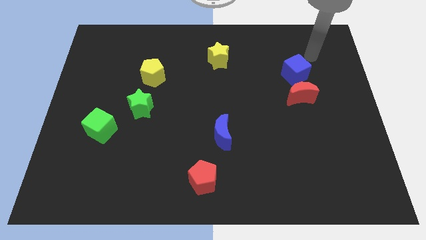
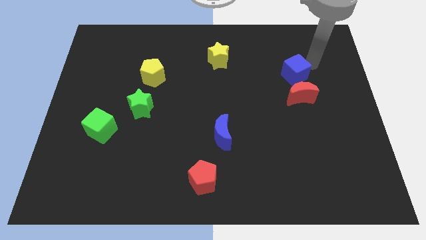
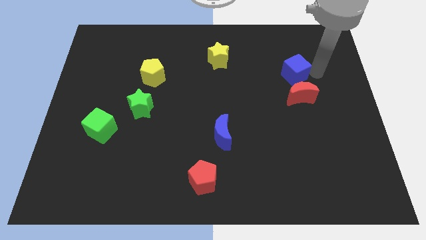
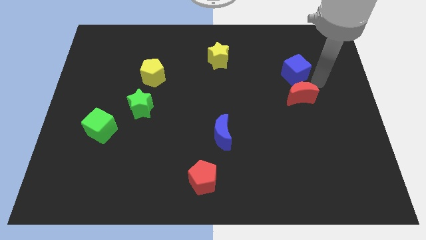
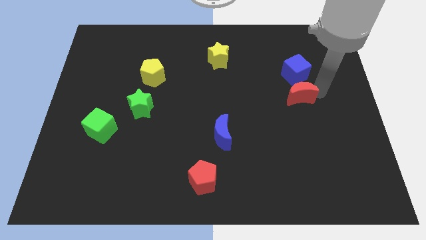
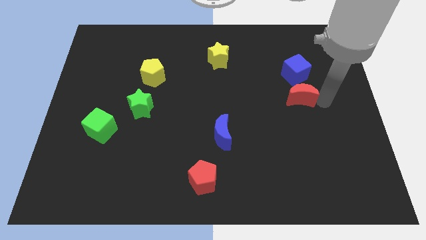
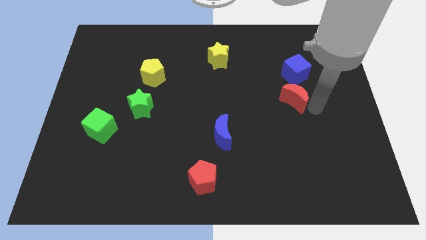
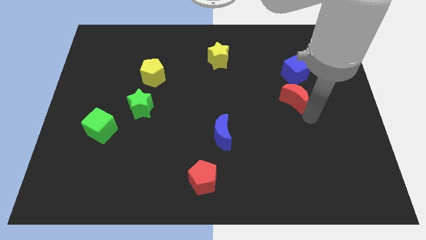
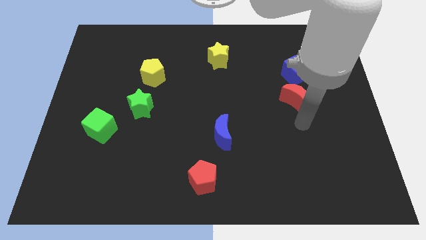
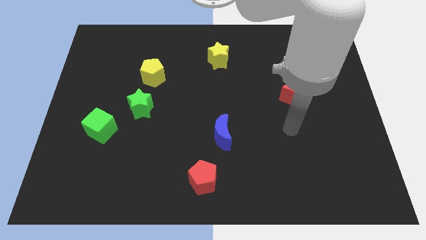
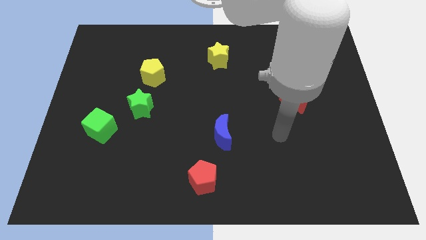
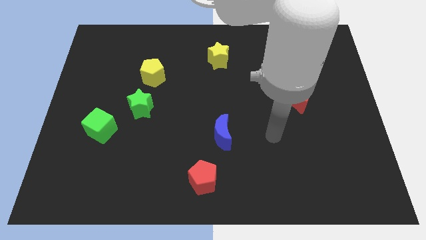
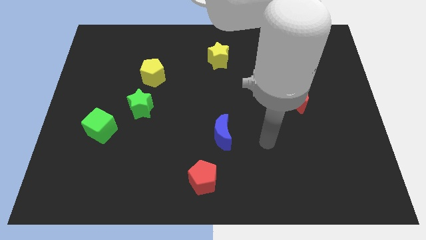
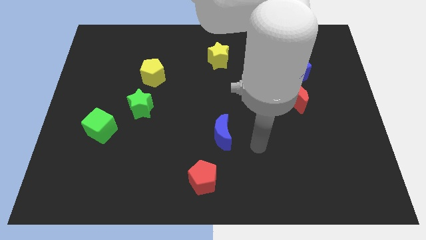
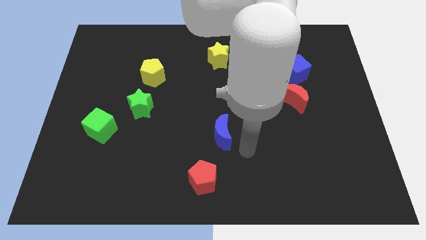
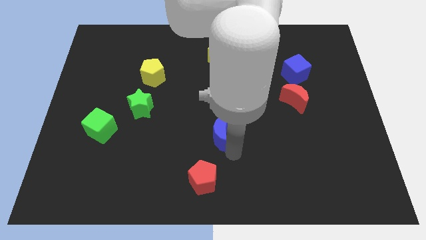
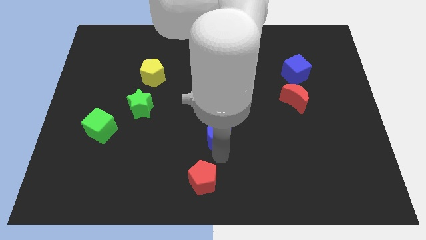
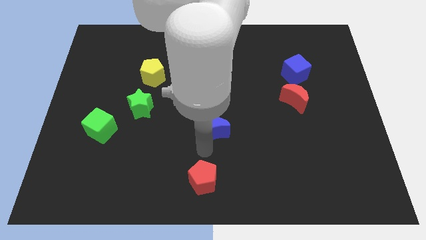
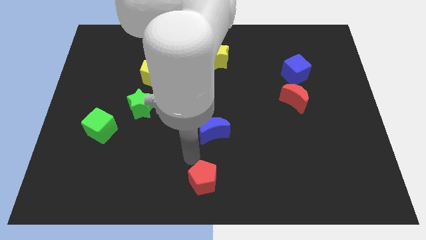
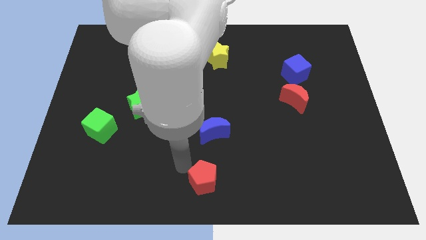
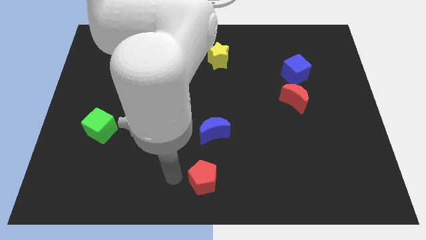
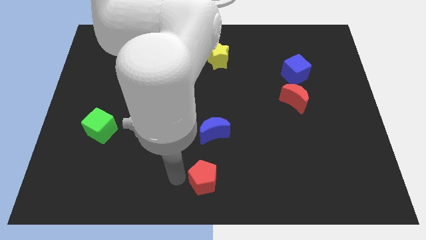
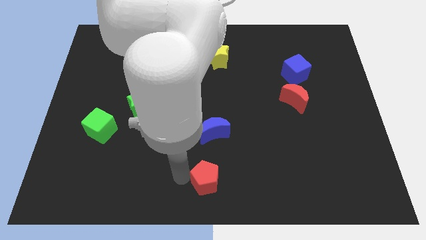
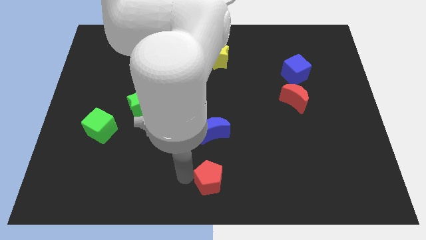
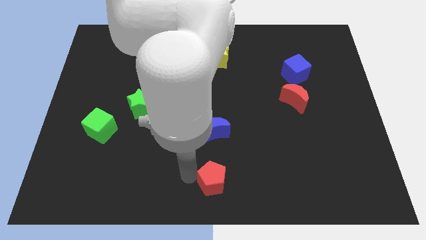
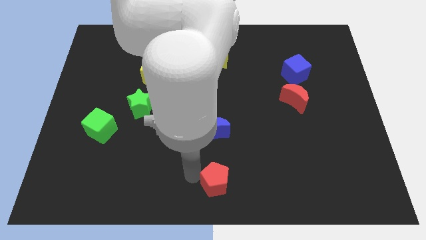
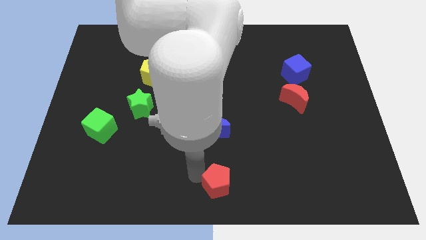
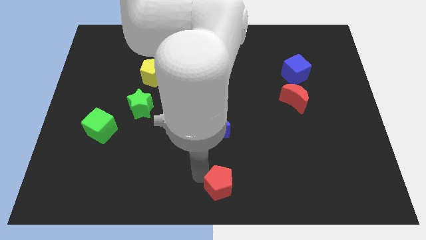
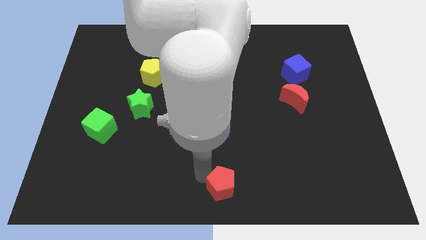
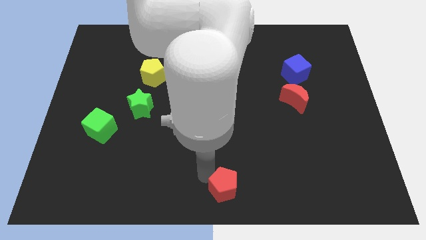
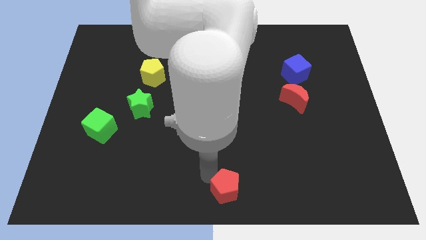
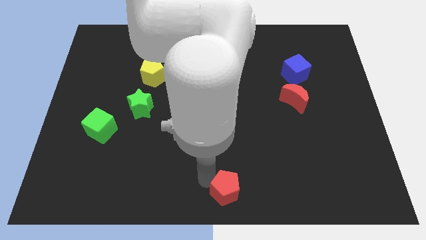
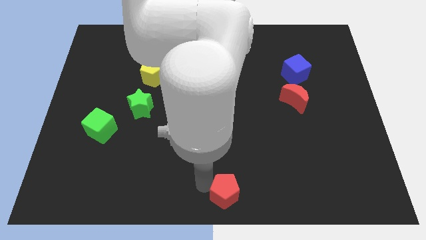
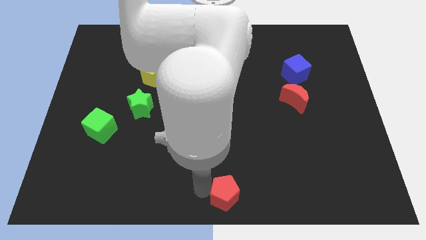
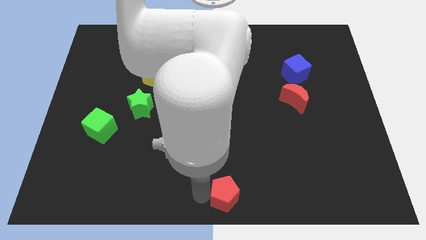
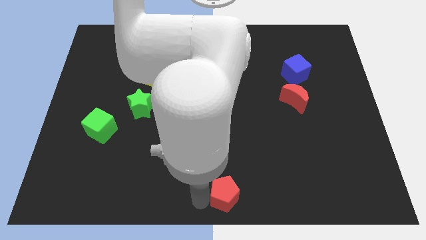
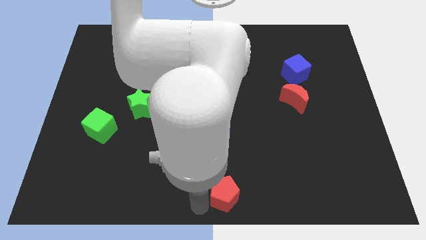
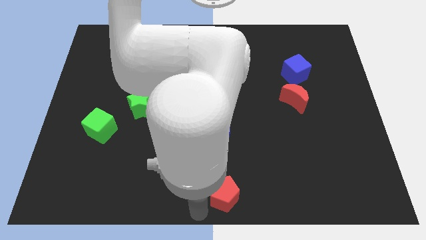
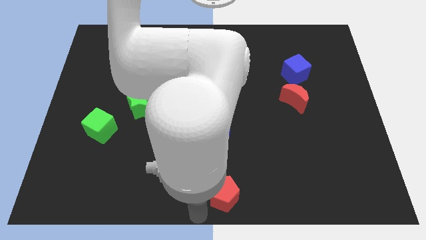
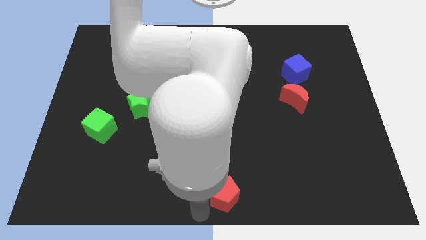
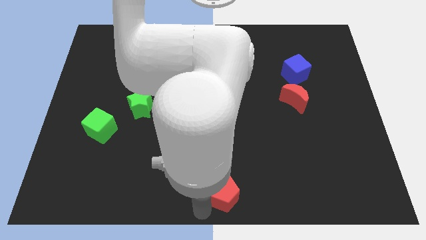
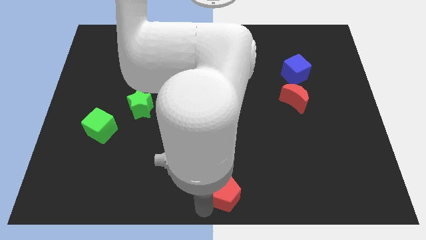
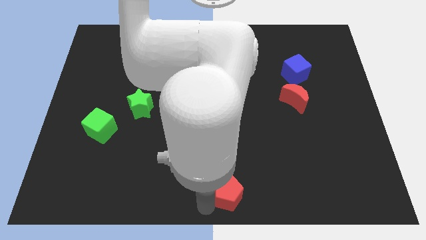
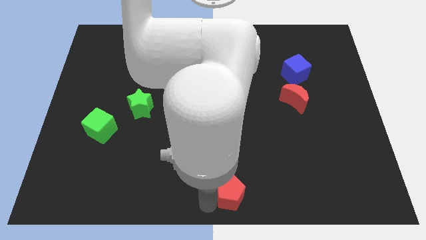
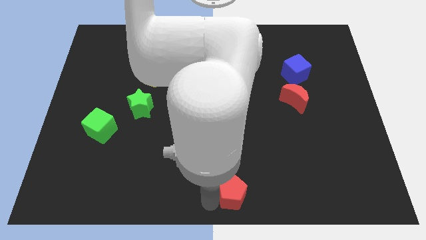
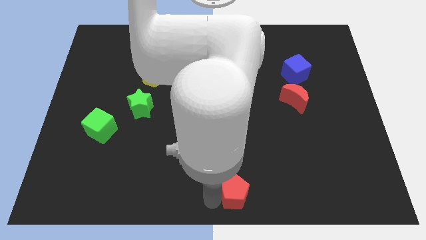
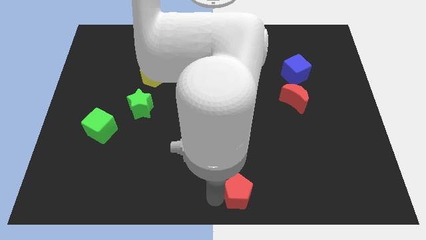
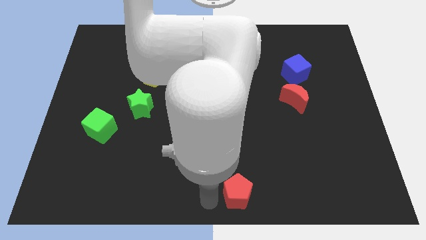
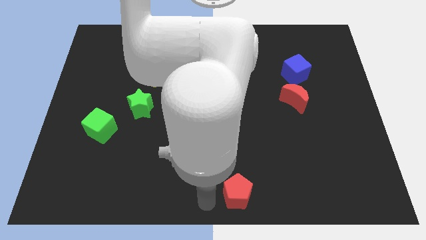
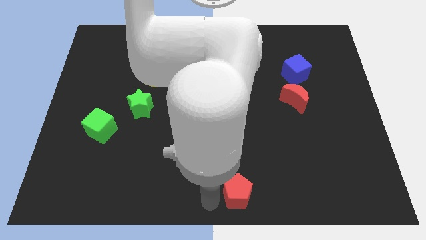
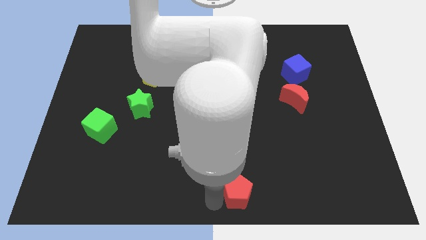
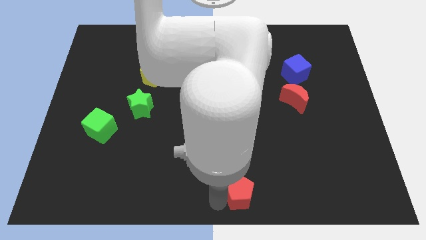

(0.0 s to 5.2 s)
move the red pentagon to the right a little

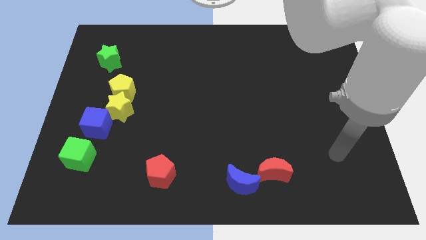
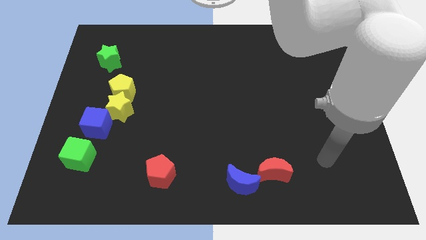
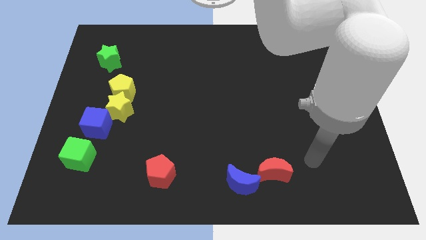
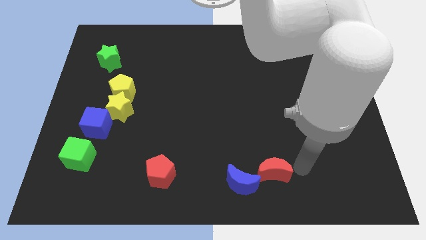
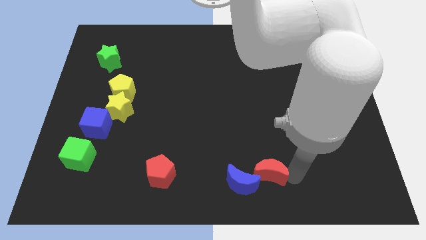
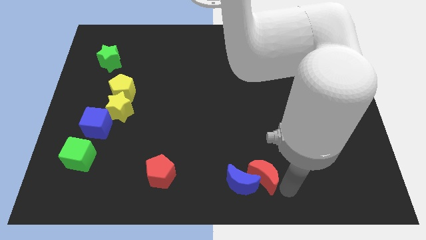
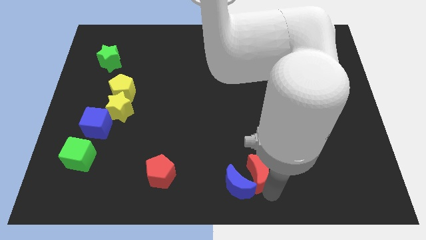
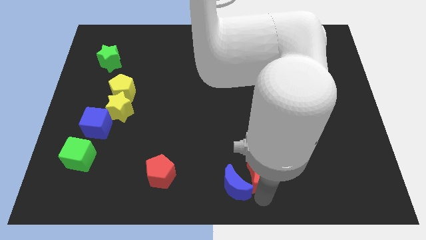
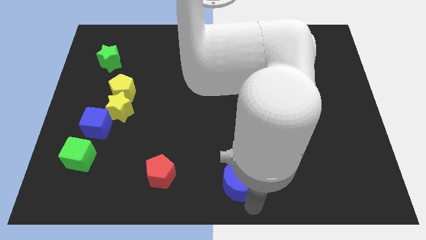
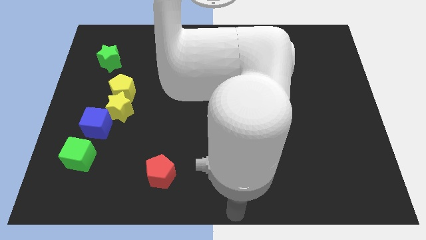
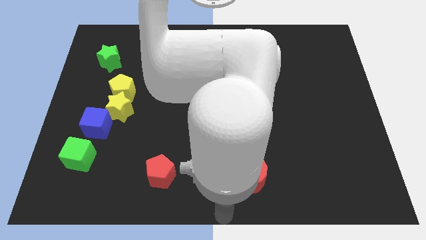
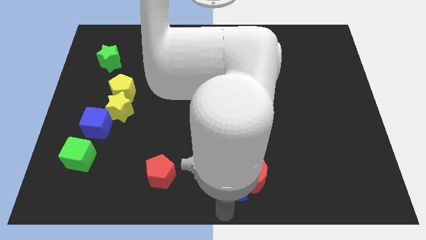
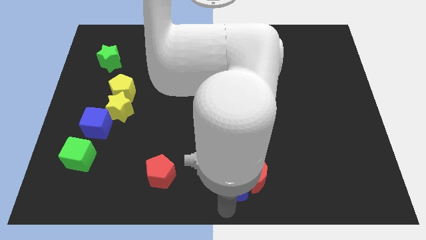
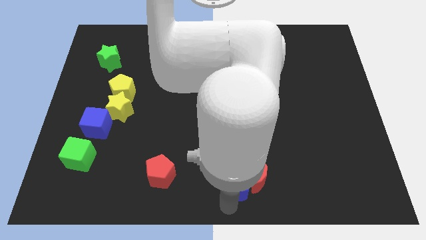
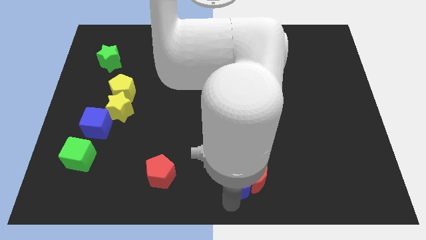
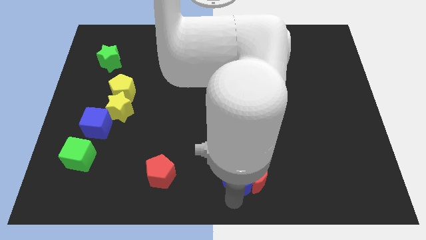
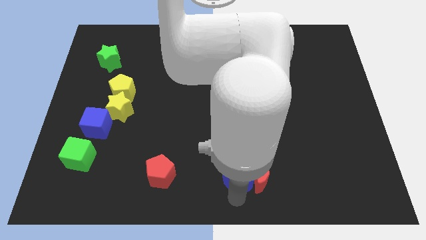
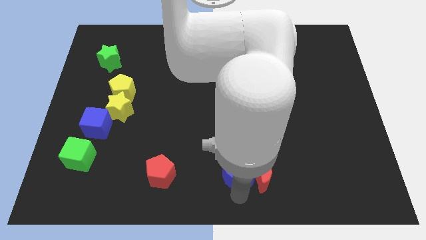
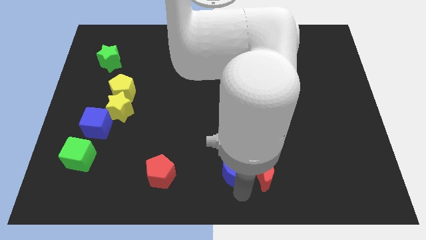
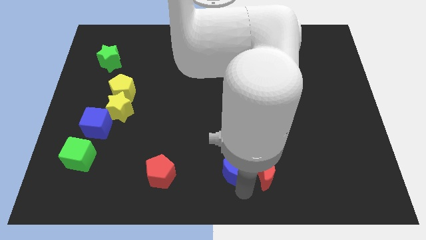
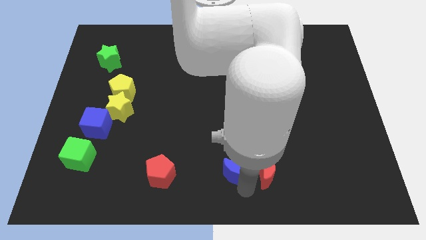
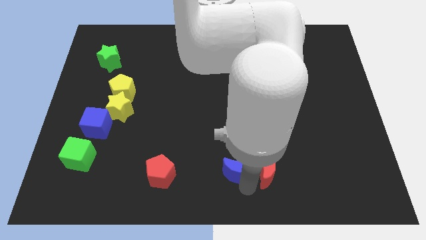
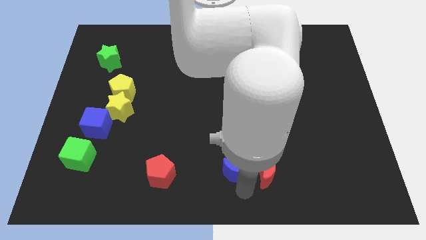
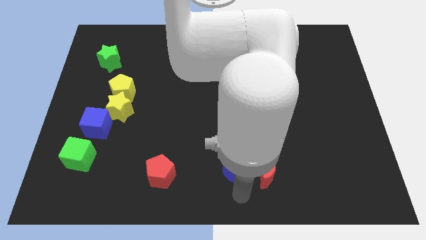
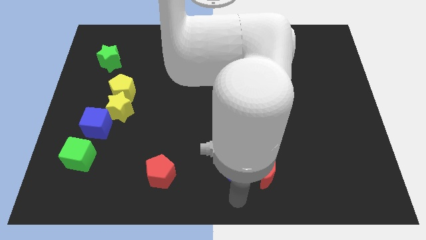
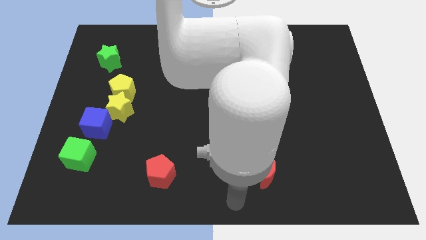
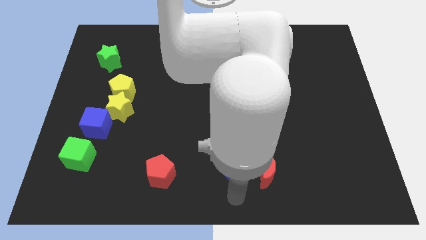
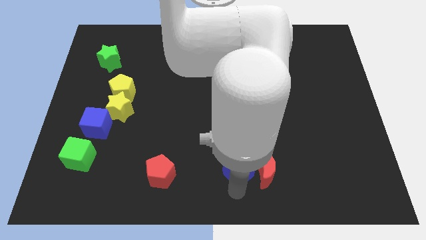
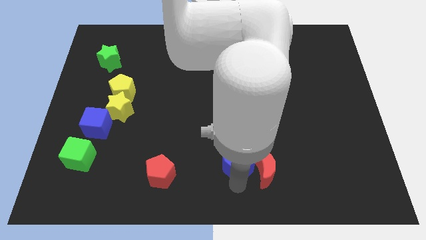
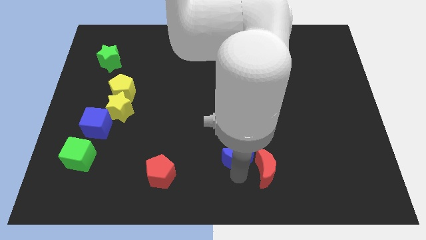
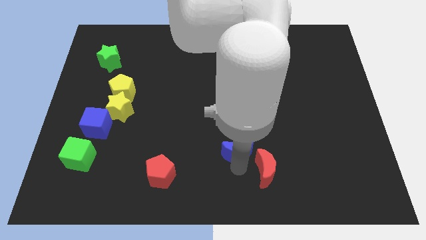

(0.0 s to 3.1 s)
move the blue moon up a little
